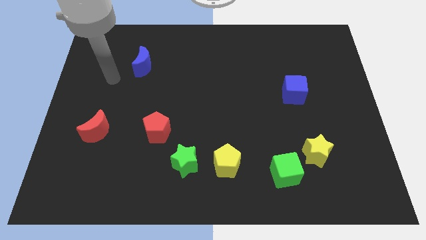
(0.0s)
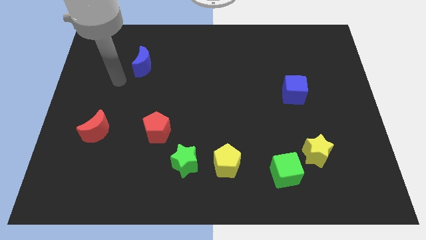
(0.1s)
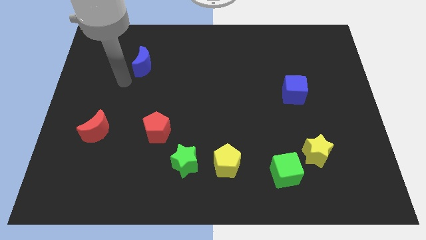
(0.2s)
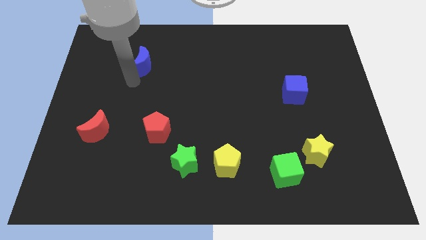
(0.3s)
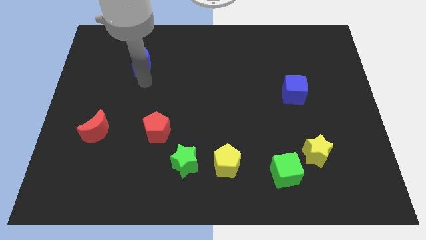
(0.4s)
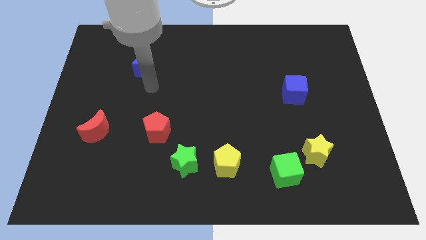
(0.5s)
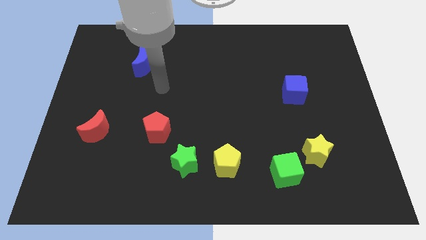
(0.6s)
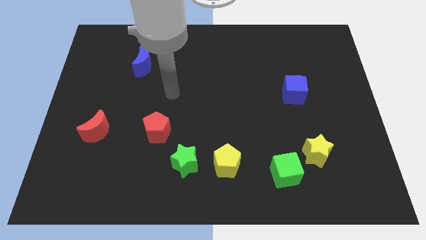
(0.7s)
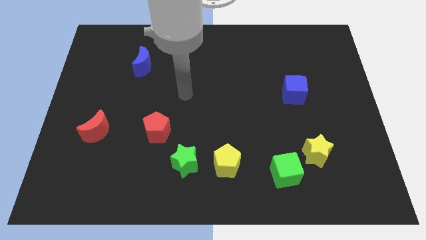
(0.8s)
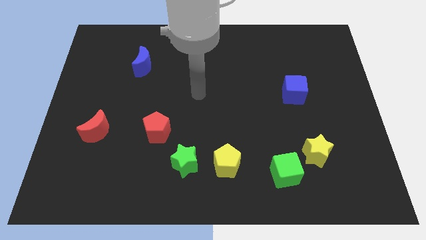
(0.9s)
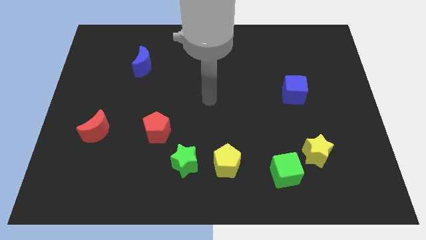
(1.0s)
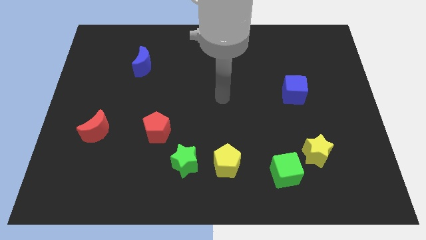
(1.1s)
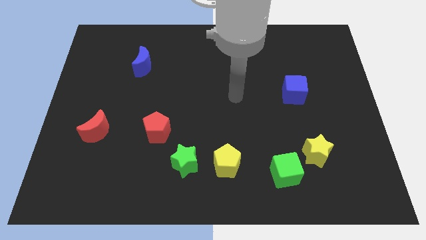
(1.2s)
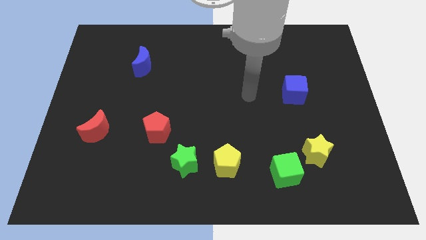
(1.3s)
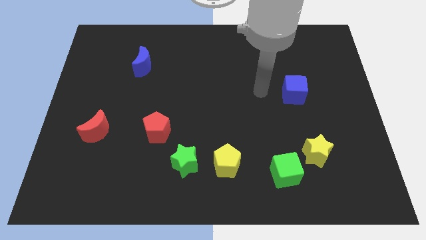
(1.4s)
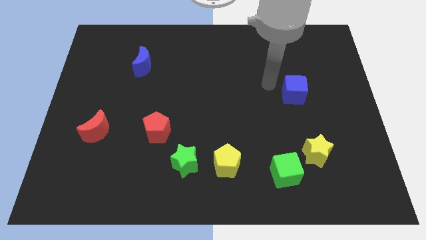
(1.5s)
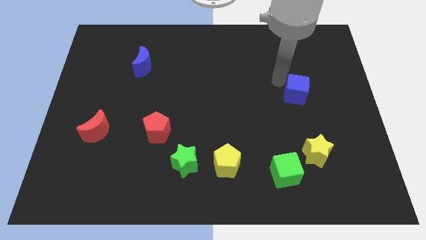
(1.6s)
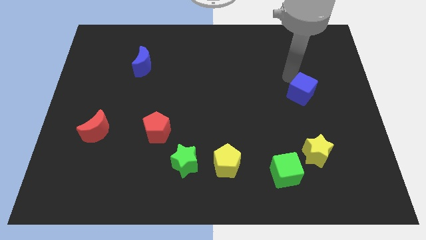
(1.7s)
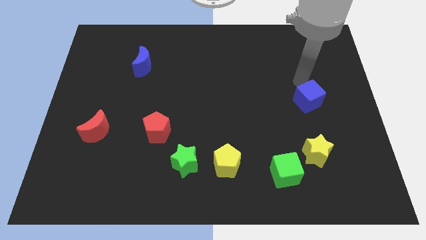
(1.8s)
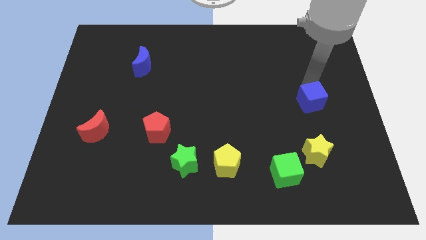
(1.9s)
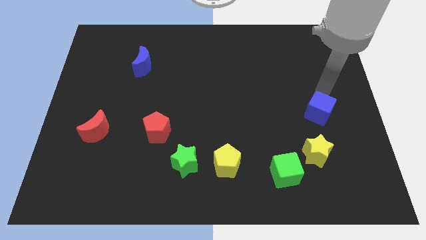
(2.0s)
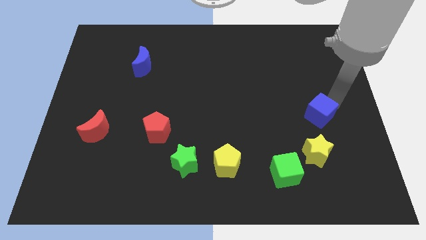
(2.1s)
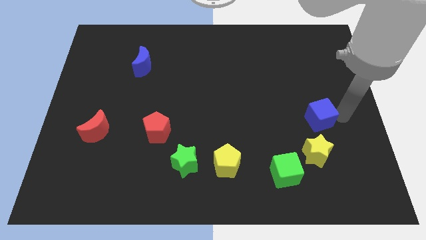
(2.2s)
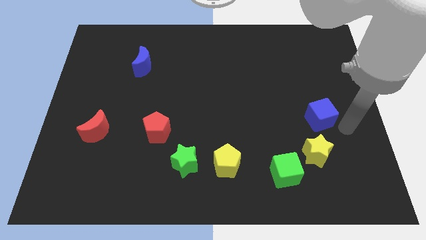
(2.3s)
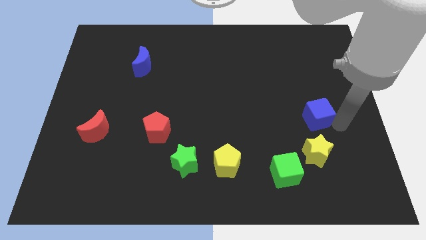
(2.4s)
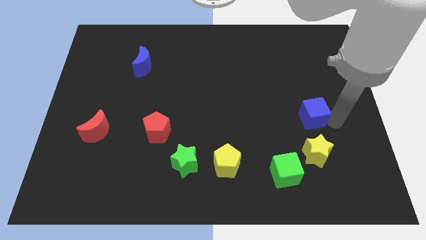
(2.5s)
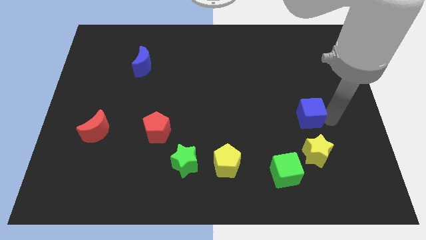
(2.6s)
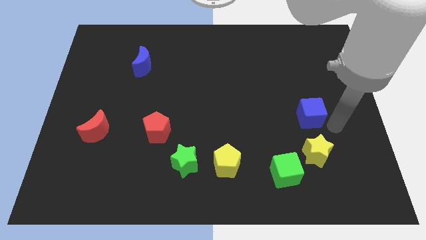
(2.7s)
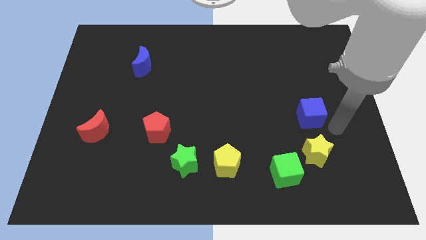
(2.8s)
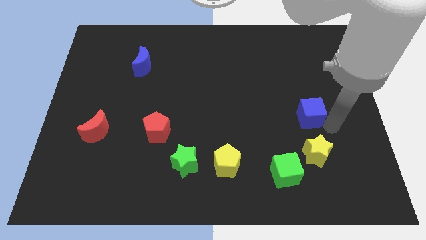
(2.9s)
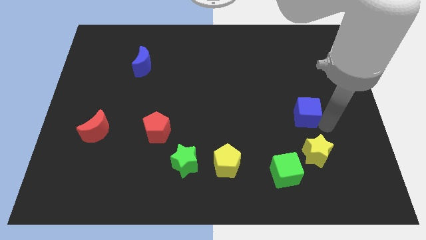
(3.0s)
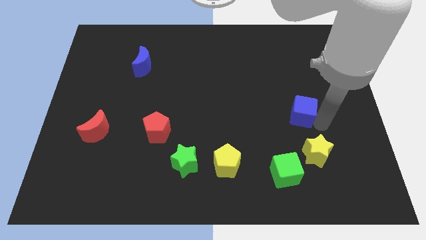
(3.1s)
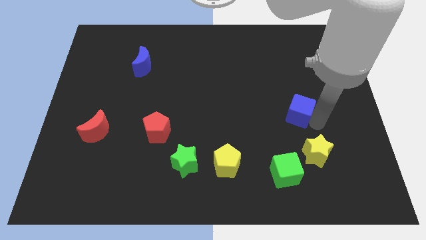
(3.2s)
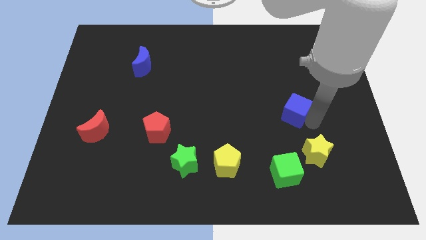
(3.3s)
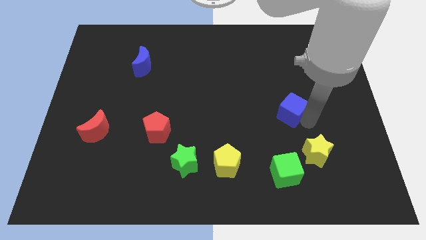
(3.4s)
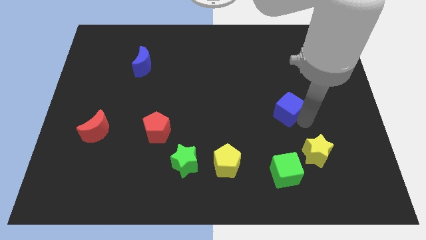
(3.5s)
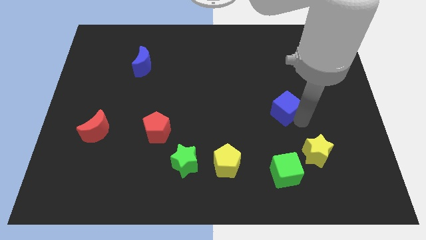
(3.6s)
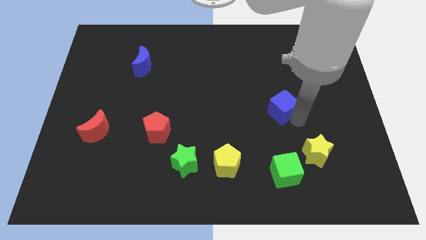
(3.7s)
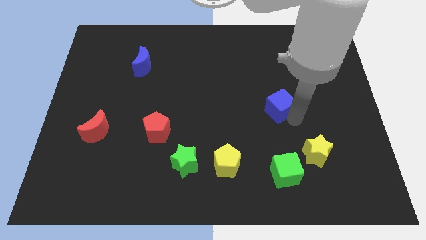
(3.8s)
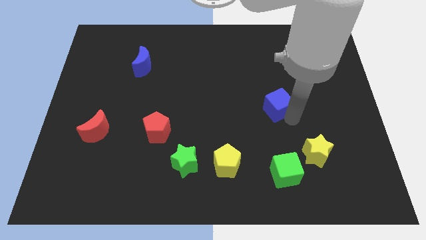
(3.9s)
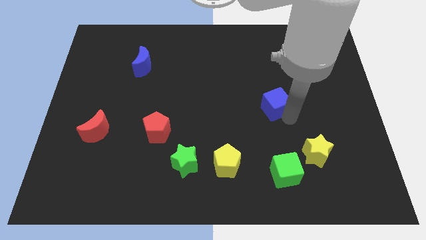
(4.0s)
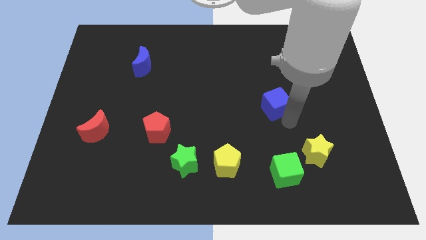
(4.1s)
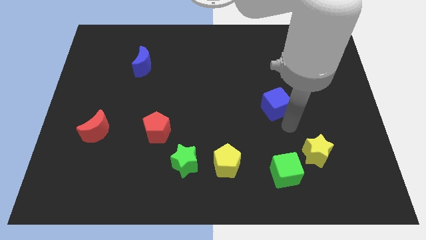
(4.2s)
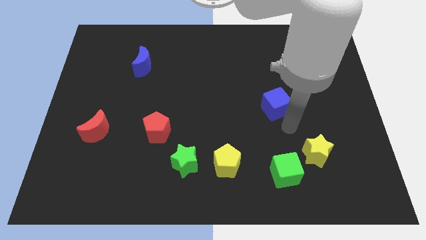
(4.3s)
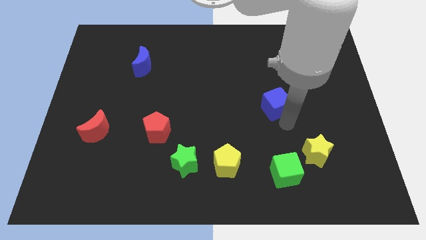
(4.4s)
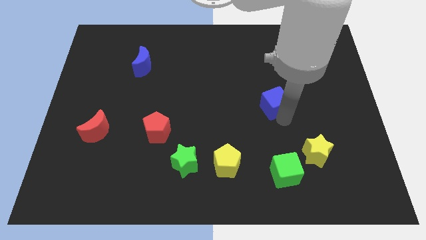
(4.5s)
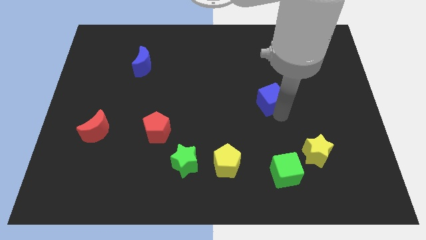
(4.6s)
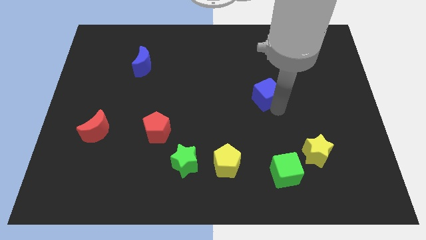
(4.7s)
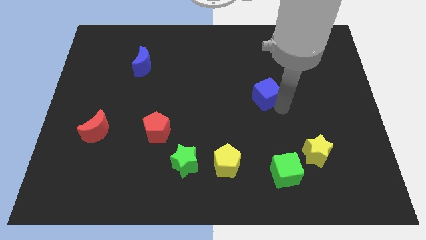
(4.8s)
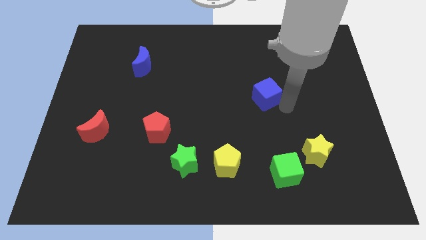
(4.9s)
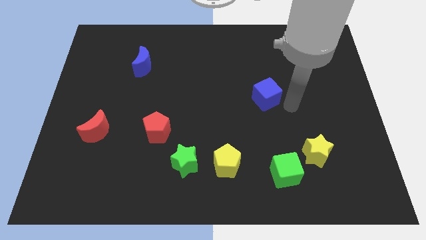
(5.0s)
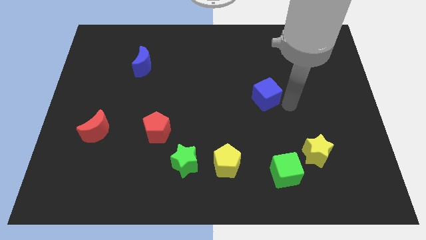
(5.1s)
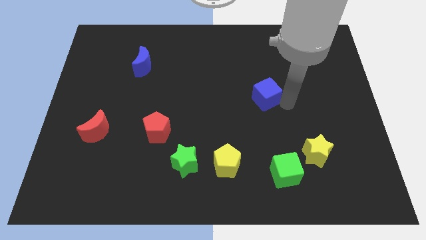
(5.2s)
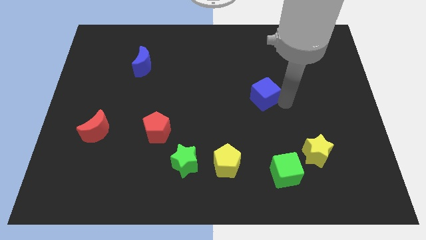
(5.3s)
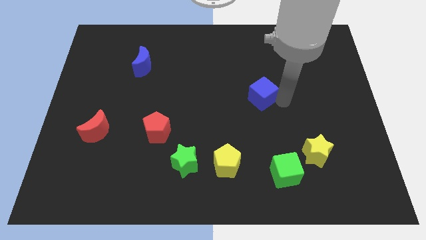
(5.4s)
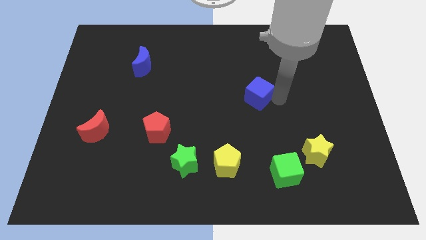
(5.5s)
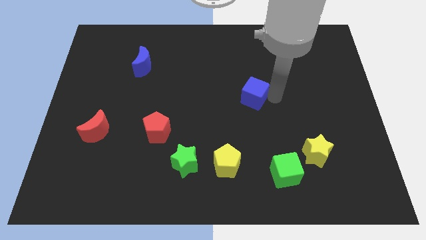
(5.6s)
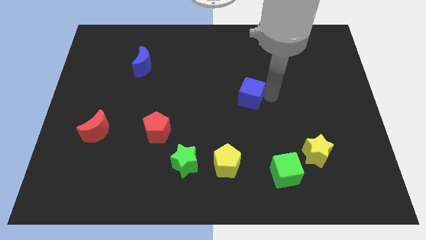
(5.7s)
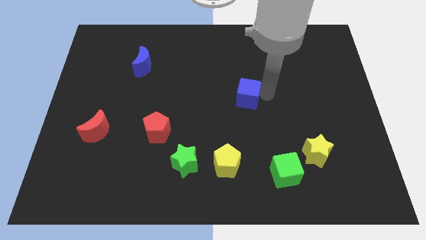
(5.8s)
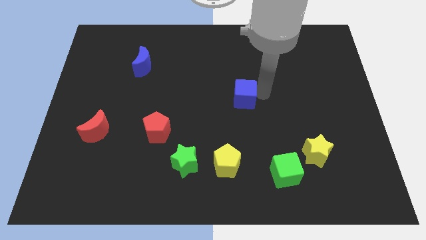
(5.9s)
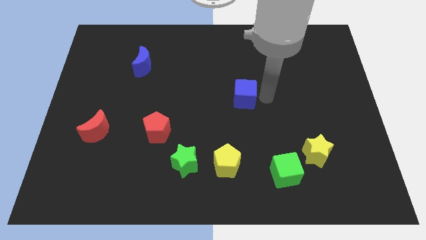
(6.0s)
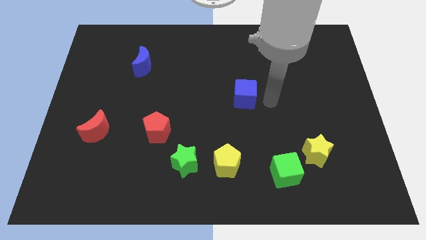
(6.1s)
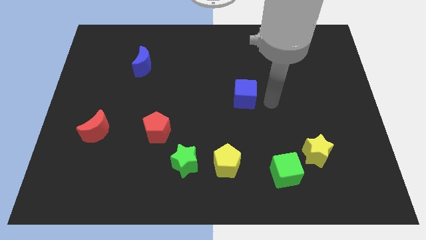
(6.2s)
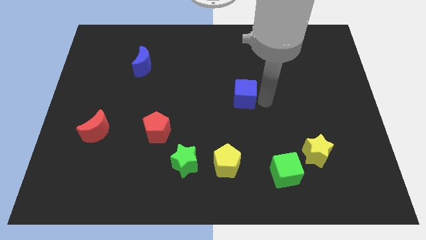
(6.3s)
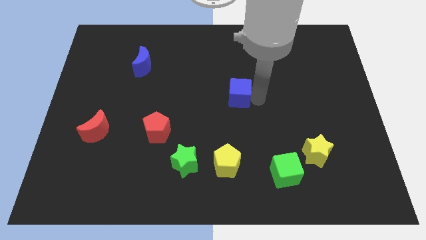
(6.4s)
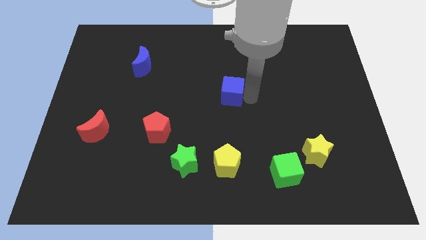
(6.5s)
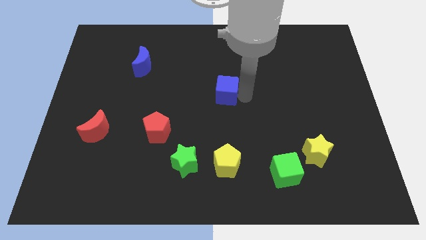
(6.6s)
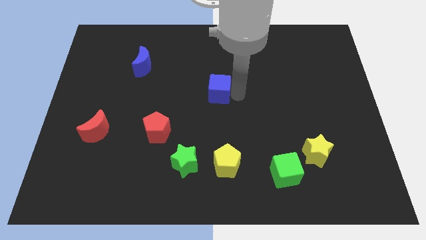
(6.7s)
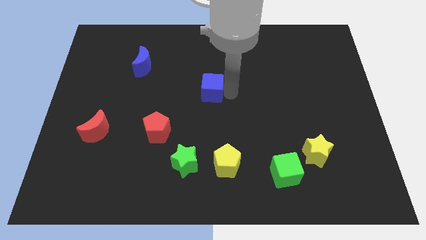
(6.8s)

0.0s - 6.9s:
move the blue cube to the left

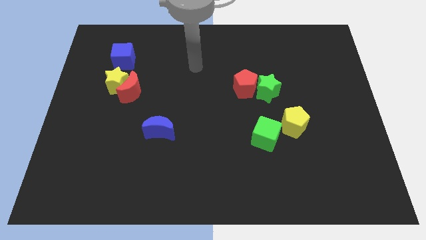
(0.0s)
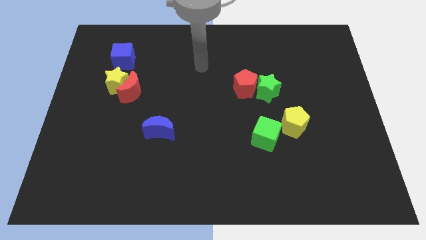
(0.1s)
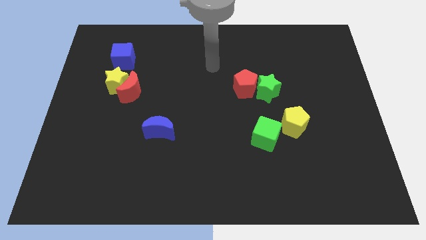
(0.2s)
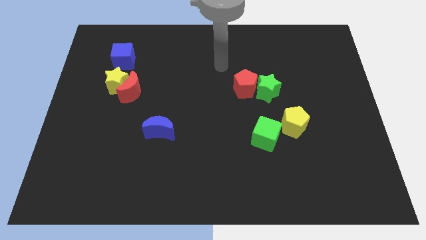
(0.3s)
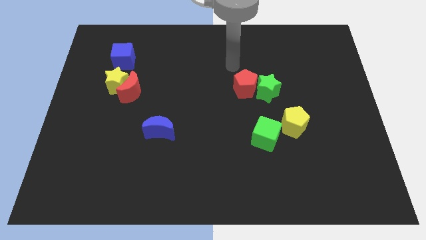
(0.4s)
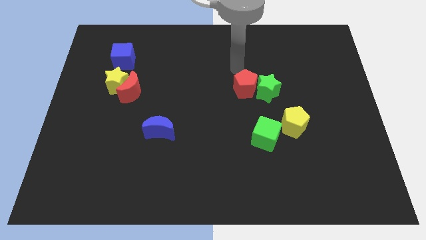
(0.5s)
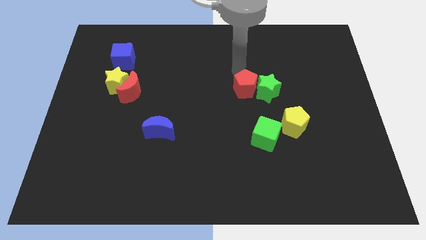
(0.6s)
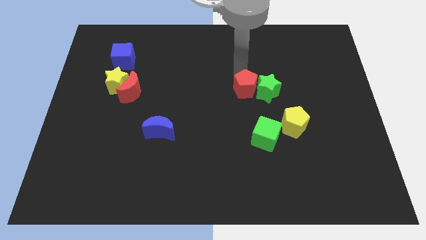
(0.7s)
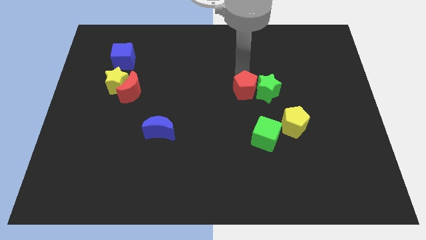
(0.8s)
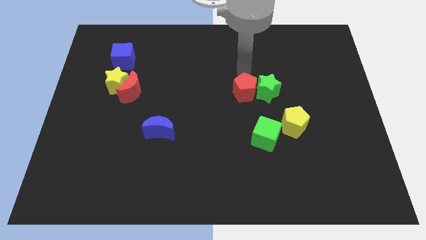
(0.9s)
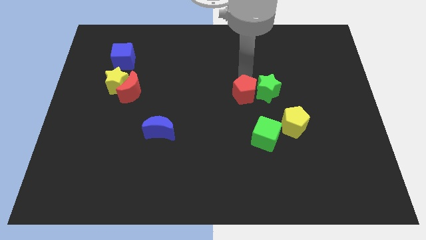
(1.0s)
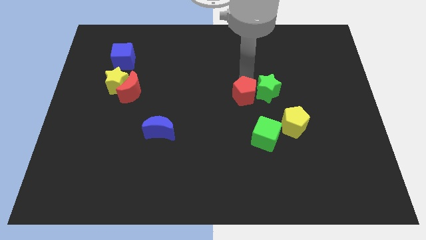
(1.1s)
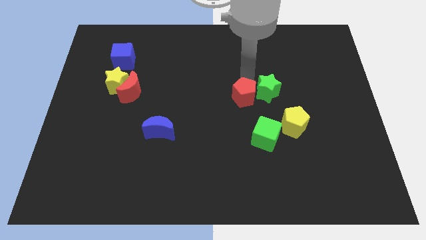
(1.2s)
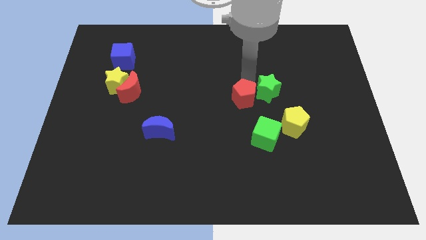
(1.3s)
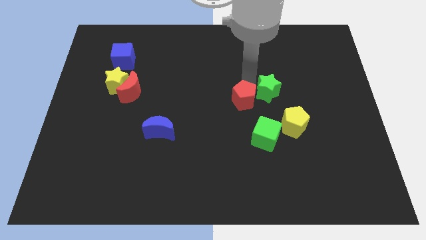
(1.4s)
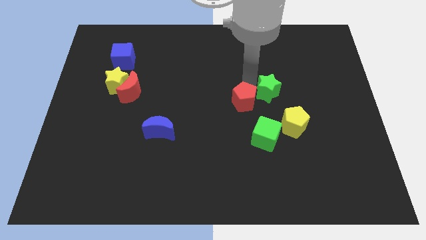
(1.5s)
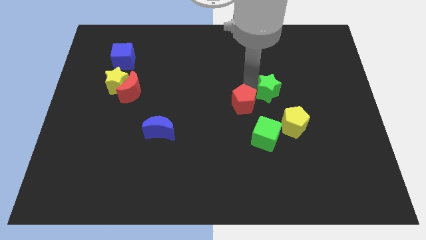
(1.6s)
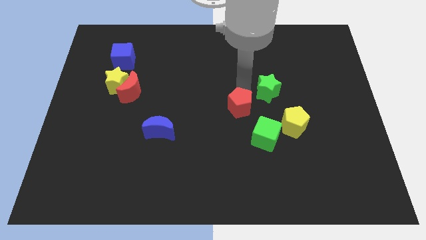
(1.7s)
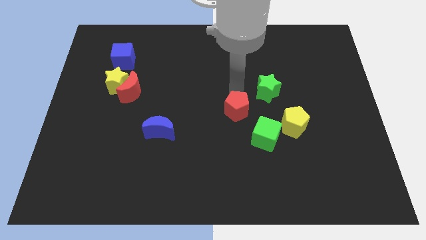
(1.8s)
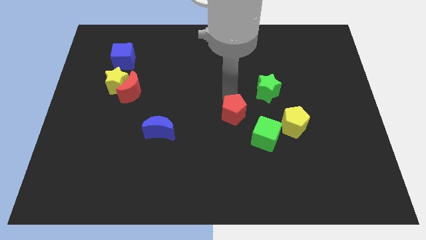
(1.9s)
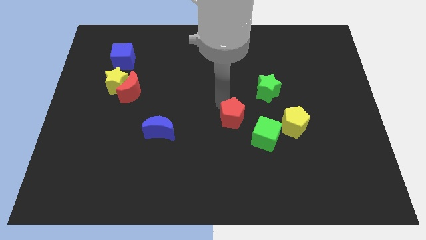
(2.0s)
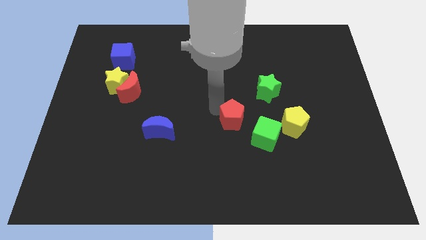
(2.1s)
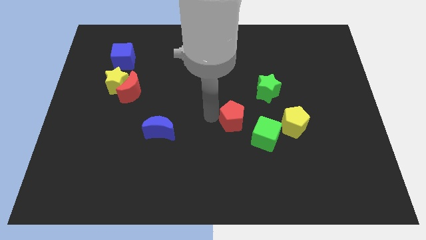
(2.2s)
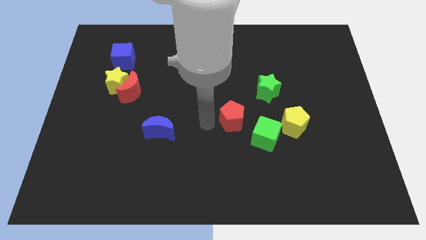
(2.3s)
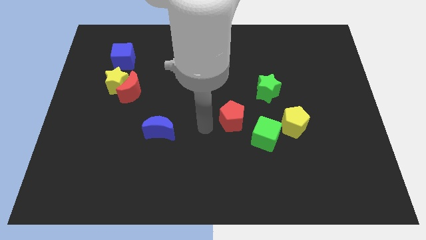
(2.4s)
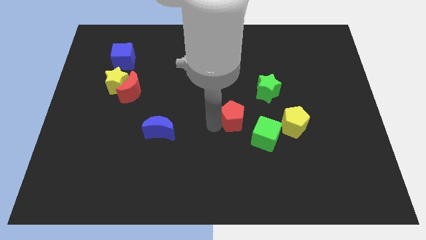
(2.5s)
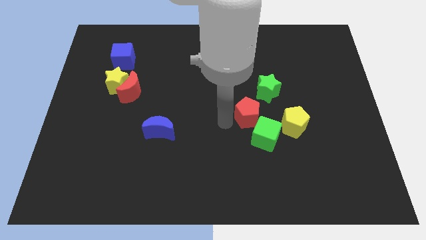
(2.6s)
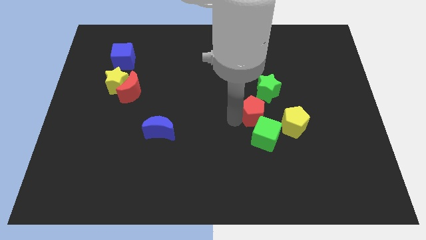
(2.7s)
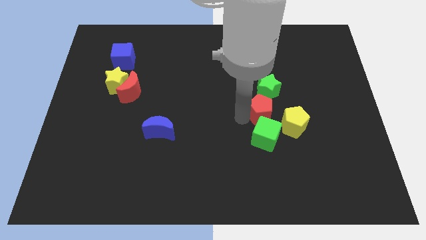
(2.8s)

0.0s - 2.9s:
slightly slide the red pentagon diagonally downwards and to the right
